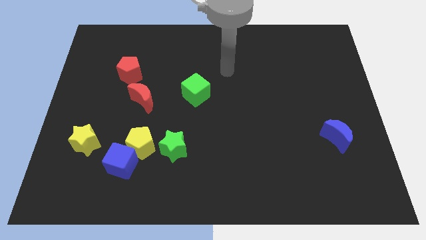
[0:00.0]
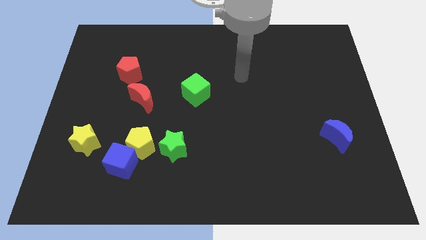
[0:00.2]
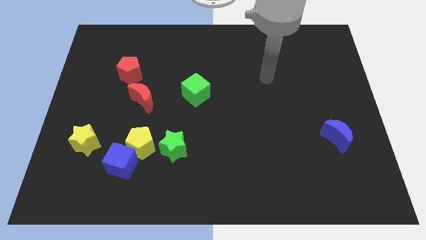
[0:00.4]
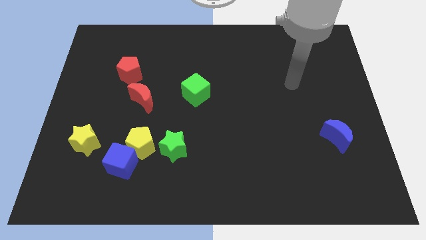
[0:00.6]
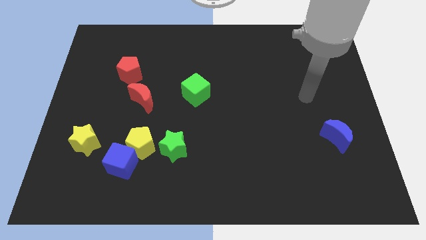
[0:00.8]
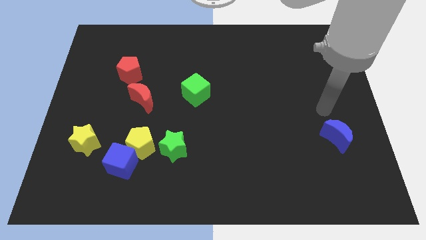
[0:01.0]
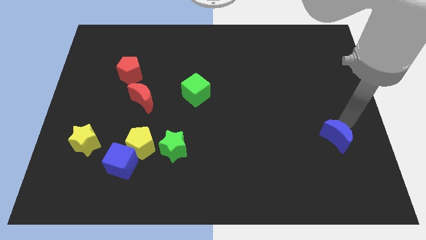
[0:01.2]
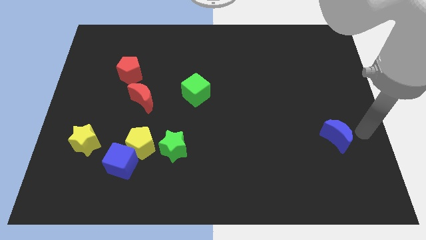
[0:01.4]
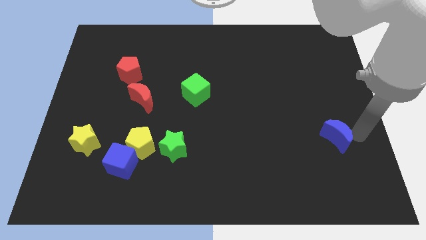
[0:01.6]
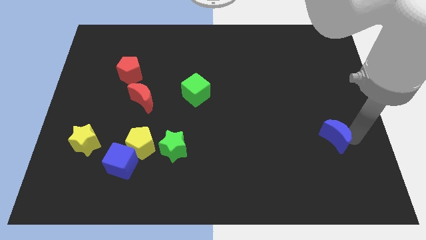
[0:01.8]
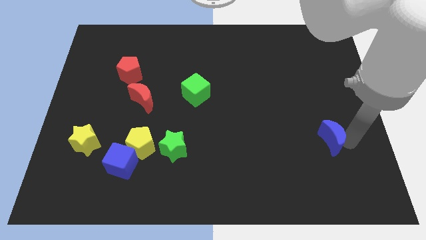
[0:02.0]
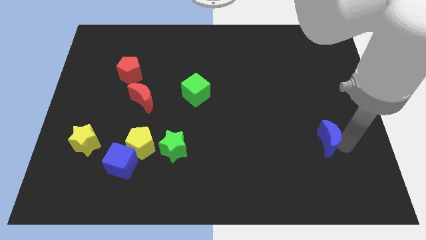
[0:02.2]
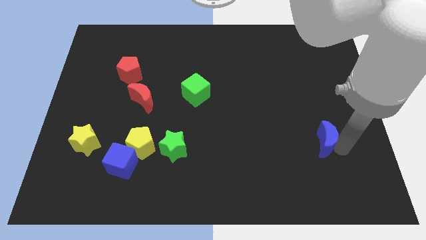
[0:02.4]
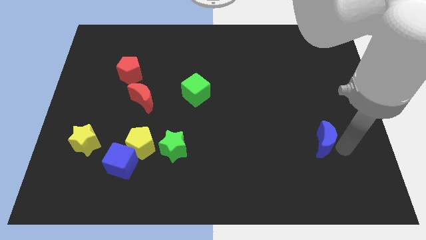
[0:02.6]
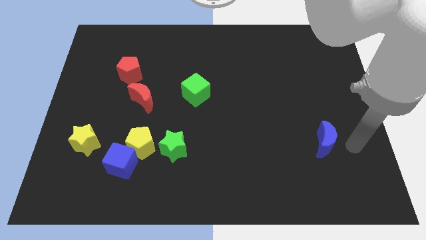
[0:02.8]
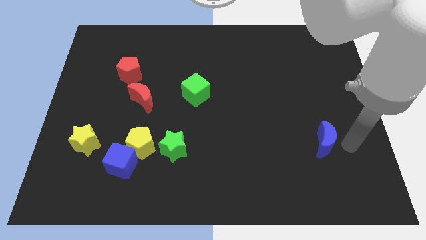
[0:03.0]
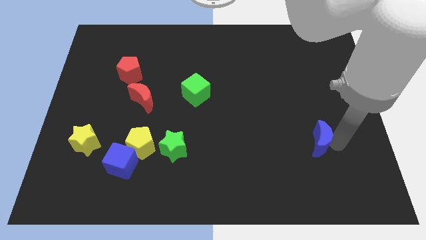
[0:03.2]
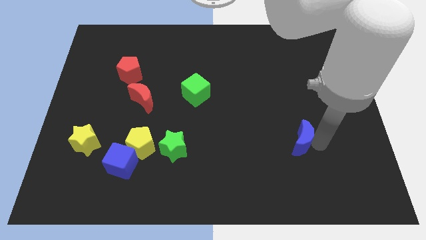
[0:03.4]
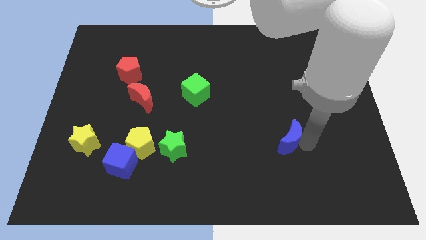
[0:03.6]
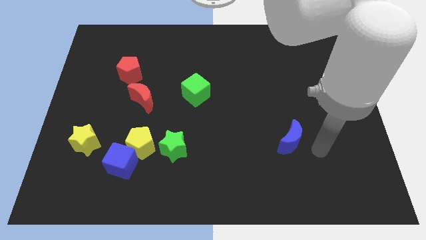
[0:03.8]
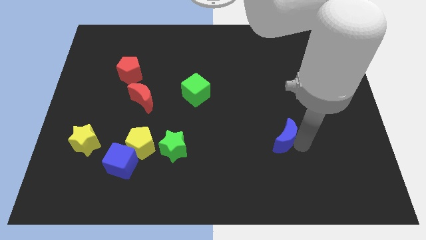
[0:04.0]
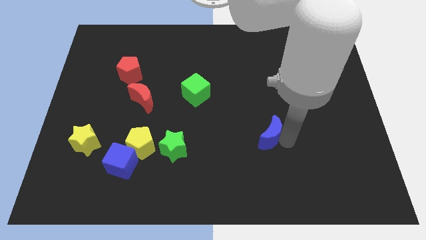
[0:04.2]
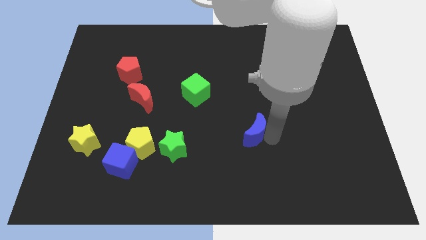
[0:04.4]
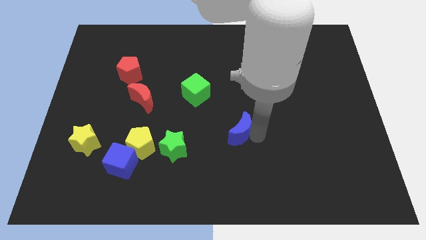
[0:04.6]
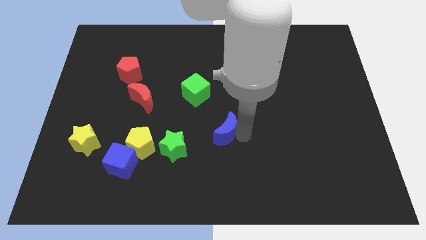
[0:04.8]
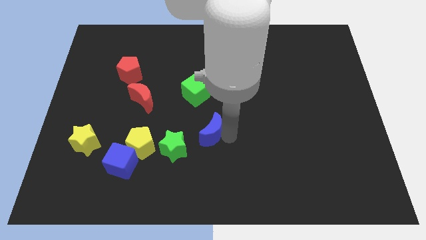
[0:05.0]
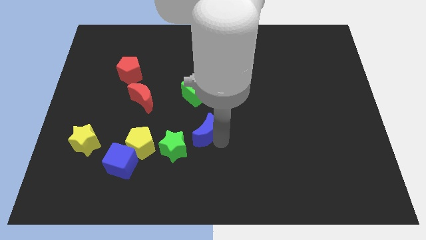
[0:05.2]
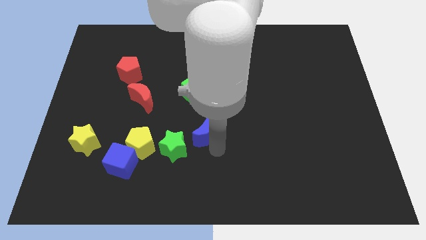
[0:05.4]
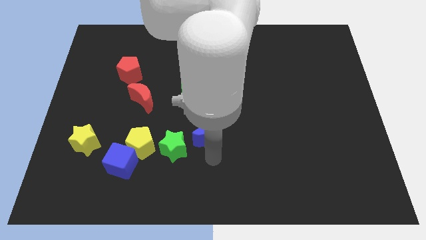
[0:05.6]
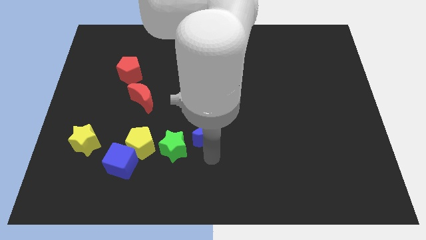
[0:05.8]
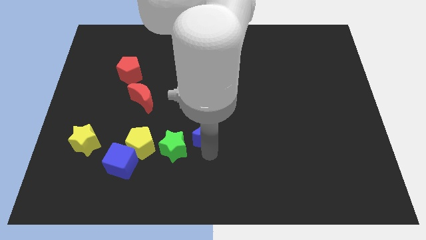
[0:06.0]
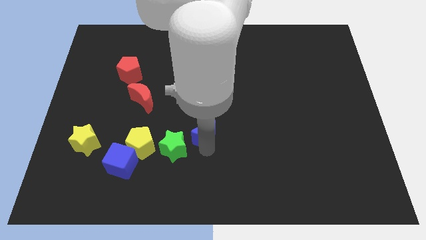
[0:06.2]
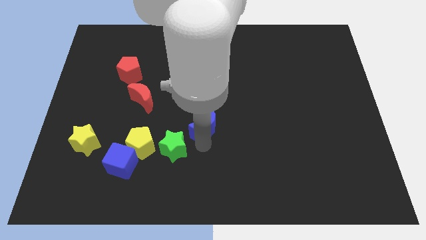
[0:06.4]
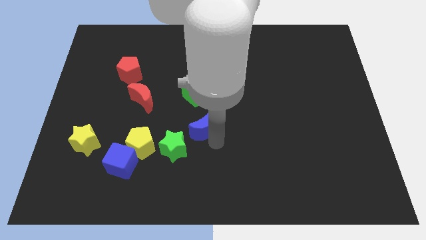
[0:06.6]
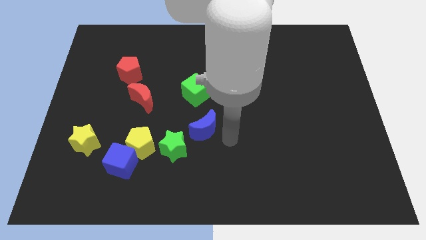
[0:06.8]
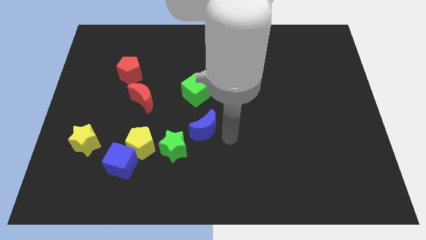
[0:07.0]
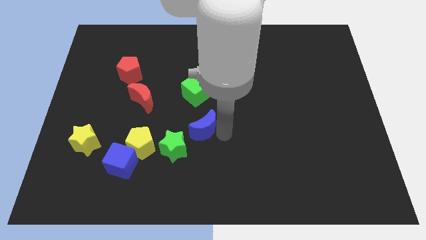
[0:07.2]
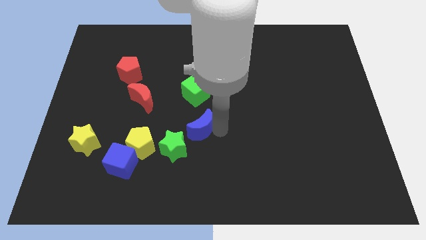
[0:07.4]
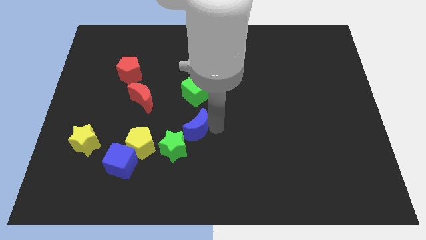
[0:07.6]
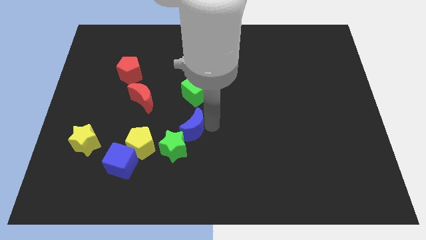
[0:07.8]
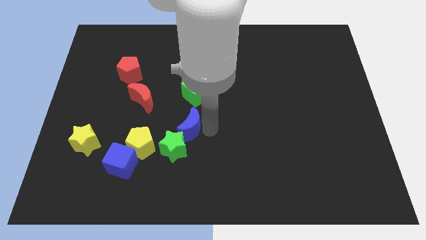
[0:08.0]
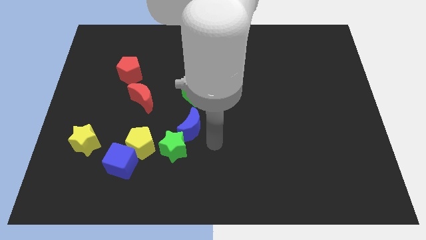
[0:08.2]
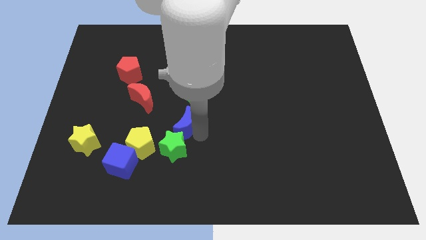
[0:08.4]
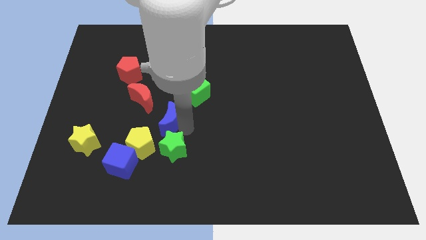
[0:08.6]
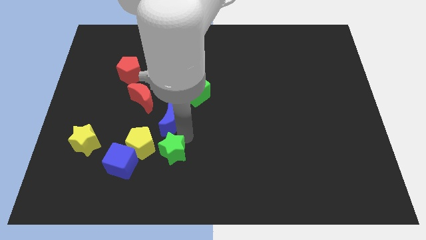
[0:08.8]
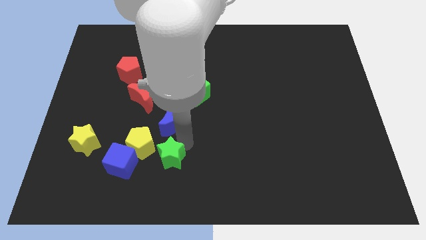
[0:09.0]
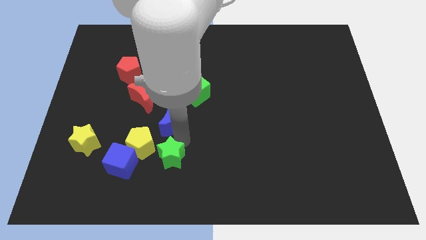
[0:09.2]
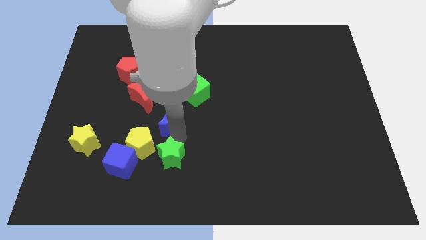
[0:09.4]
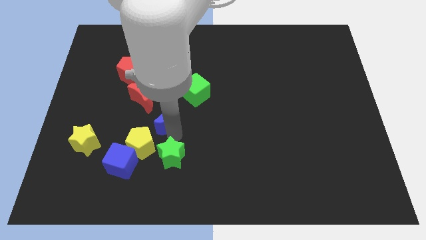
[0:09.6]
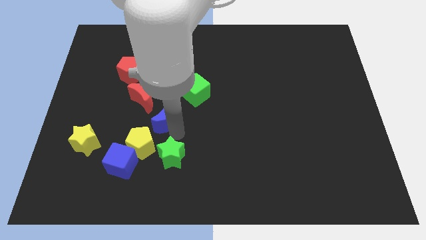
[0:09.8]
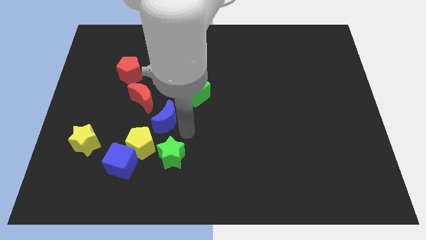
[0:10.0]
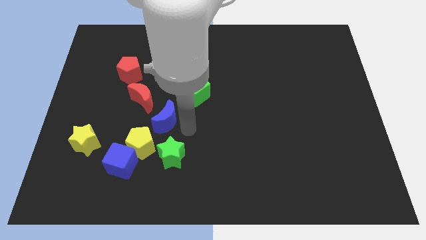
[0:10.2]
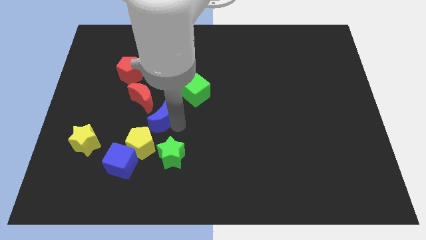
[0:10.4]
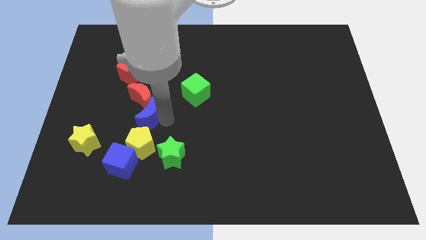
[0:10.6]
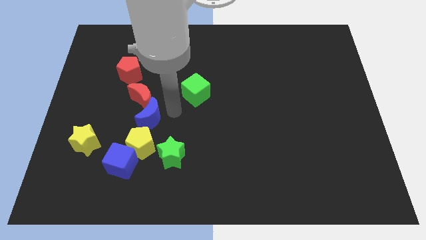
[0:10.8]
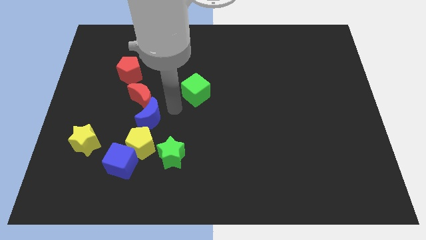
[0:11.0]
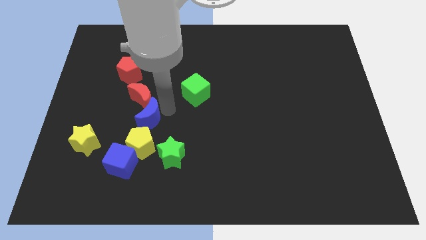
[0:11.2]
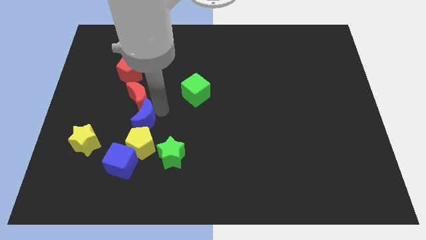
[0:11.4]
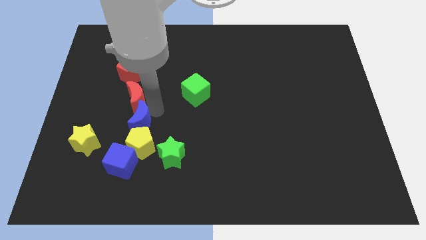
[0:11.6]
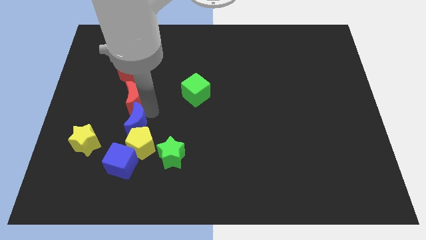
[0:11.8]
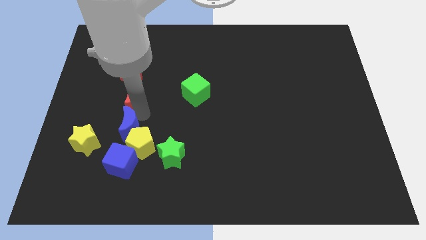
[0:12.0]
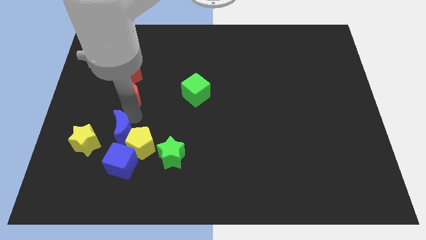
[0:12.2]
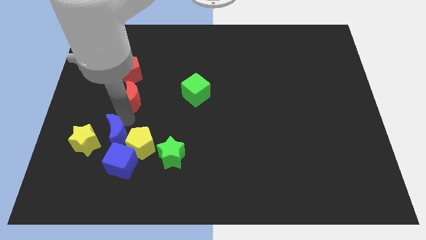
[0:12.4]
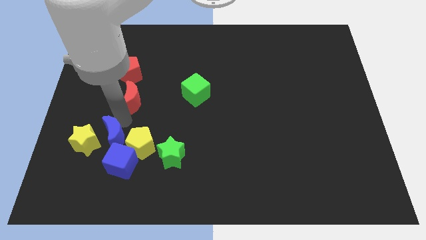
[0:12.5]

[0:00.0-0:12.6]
move the blue moon towards the yellow star

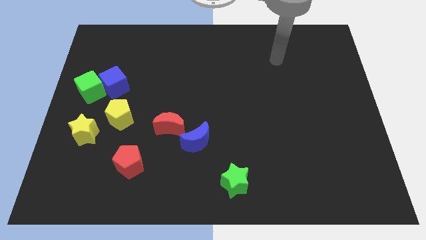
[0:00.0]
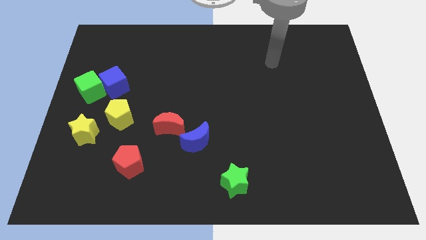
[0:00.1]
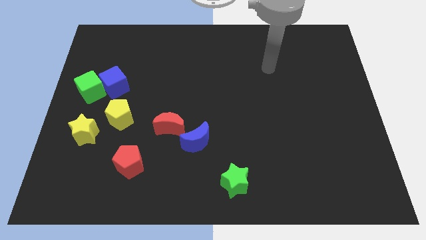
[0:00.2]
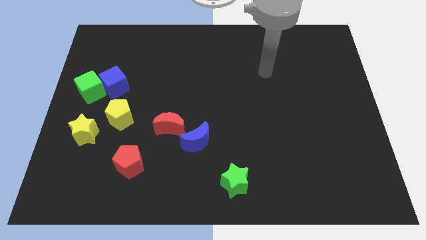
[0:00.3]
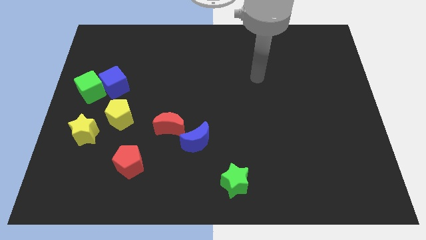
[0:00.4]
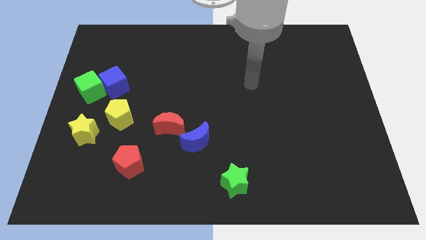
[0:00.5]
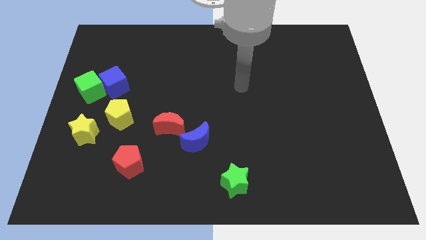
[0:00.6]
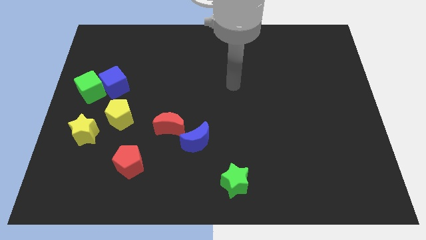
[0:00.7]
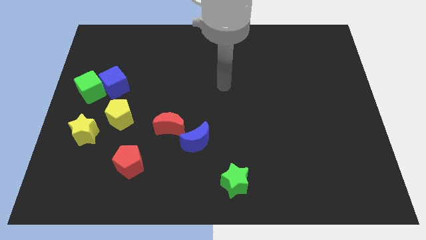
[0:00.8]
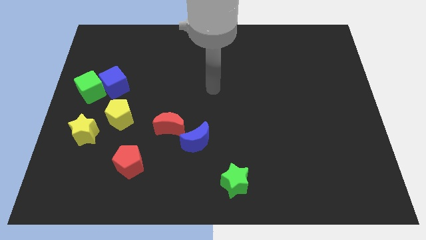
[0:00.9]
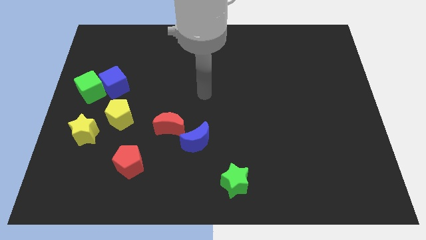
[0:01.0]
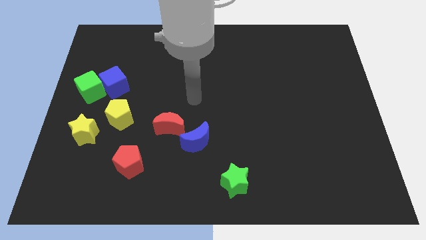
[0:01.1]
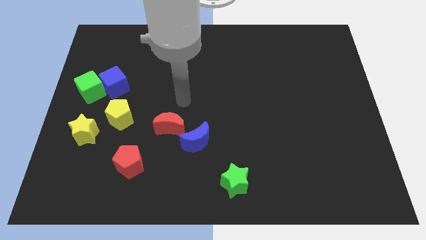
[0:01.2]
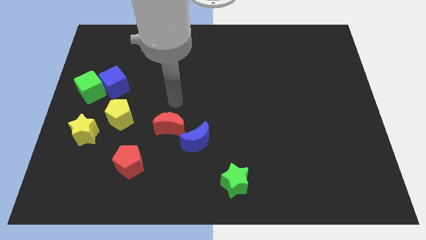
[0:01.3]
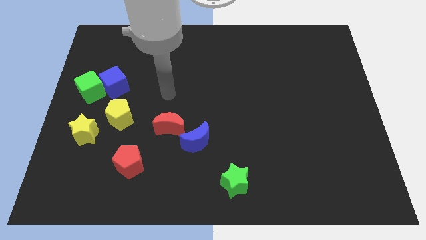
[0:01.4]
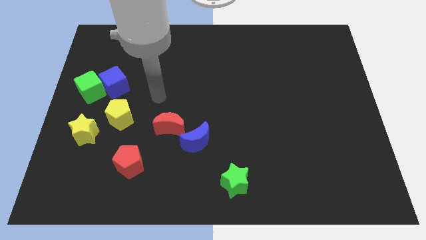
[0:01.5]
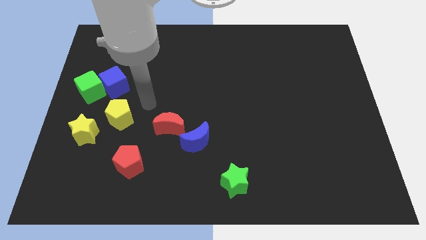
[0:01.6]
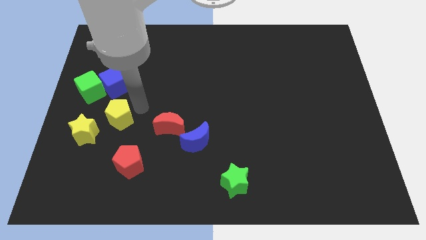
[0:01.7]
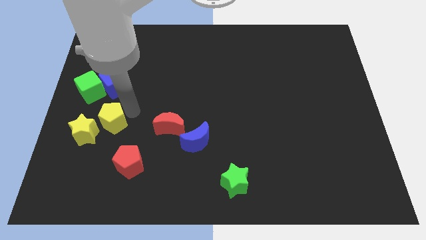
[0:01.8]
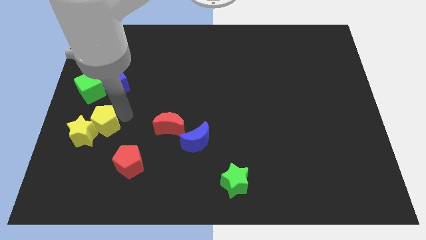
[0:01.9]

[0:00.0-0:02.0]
push the yellow pentagon to the yellow star
